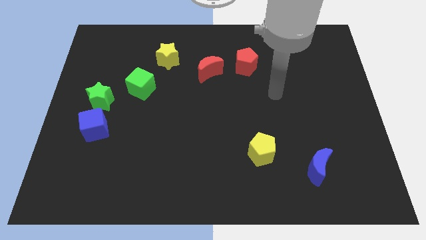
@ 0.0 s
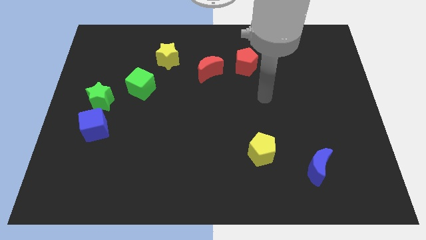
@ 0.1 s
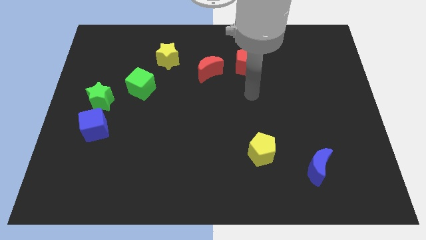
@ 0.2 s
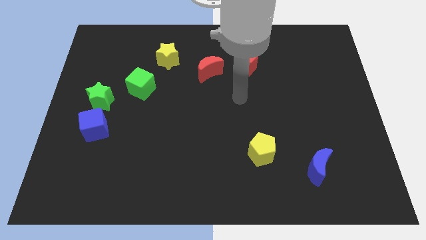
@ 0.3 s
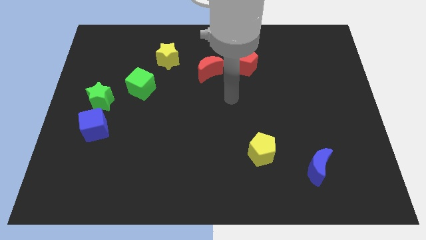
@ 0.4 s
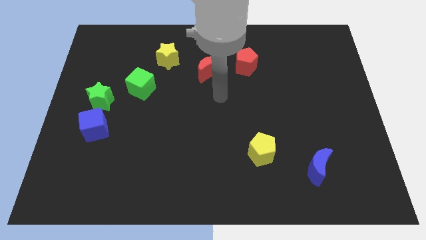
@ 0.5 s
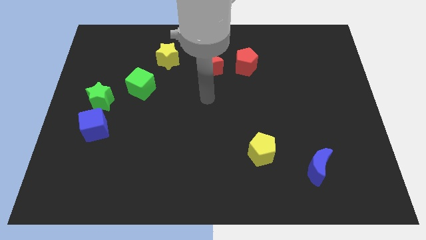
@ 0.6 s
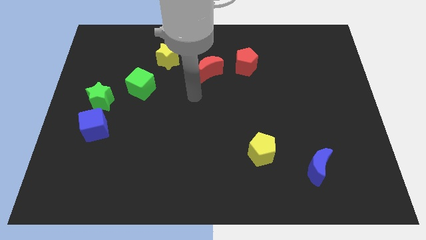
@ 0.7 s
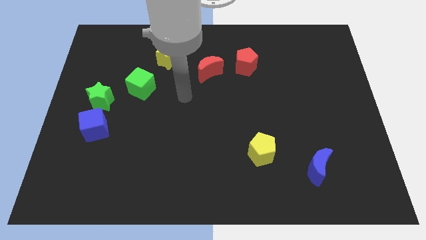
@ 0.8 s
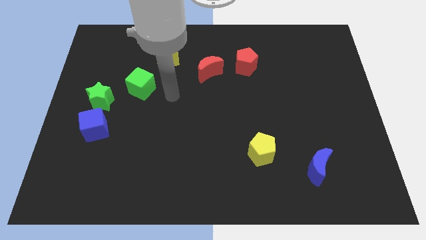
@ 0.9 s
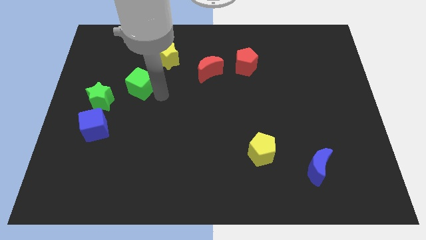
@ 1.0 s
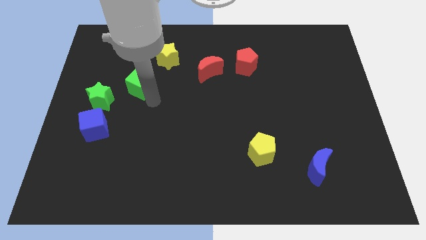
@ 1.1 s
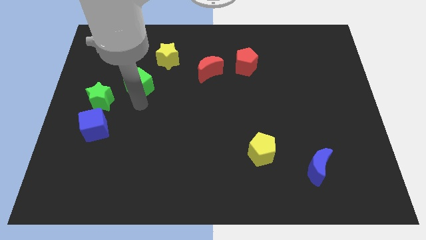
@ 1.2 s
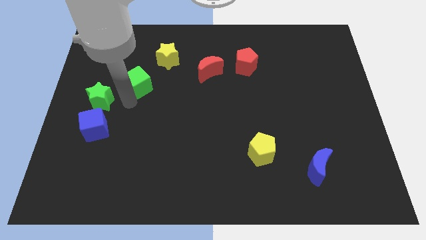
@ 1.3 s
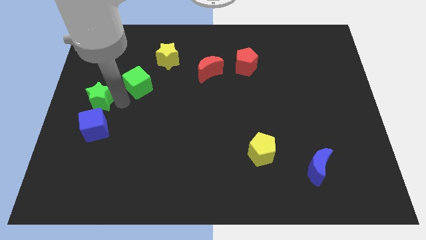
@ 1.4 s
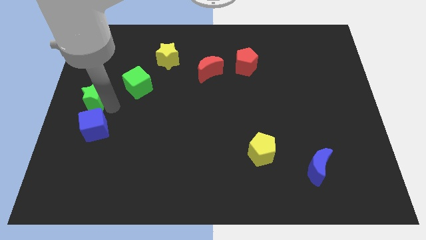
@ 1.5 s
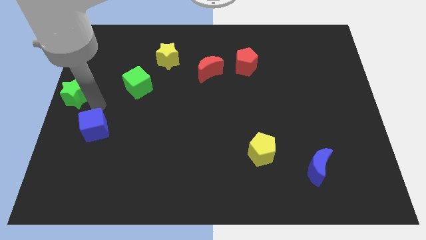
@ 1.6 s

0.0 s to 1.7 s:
pull the blue cube apart from the green star

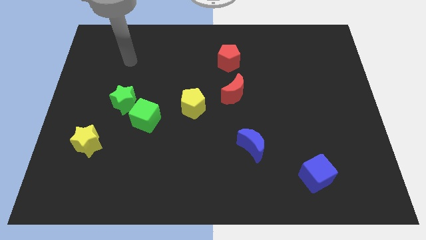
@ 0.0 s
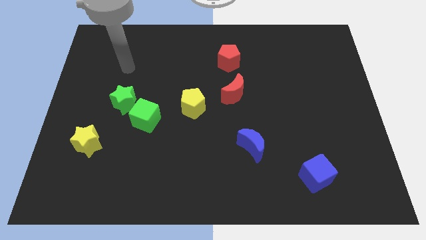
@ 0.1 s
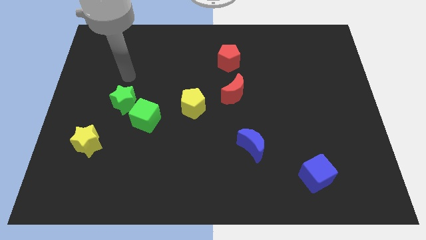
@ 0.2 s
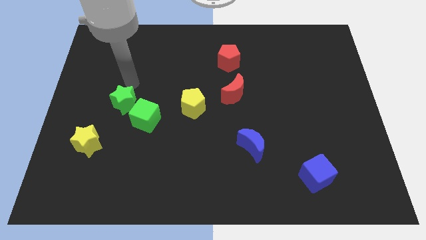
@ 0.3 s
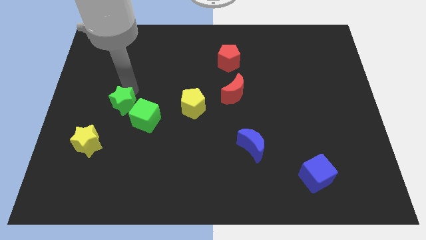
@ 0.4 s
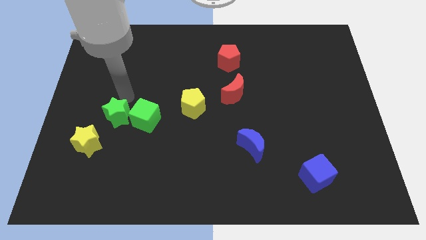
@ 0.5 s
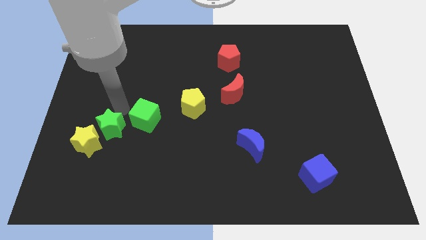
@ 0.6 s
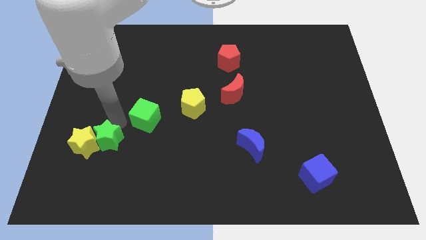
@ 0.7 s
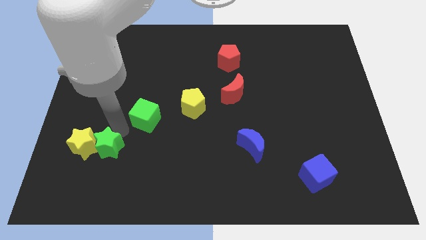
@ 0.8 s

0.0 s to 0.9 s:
separate the green cube from the green star

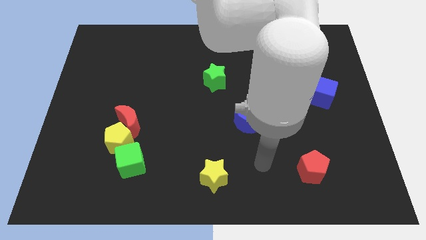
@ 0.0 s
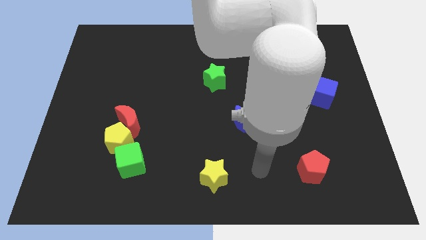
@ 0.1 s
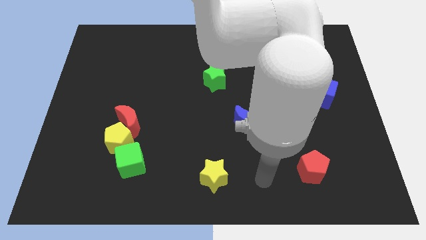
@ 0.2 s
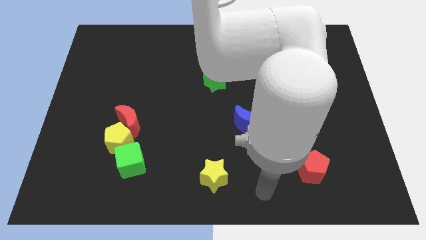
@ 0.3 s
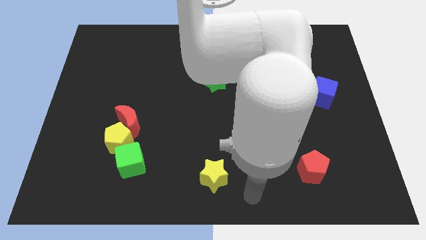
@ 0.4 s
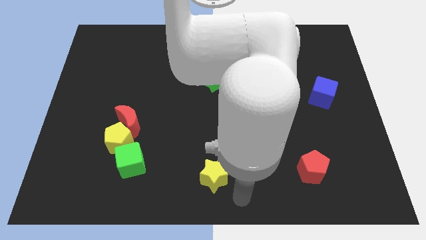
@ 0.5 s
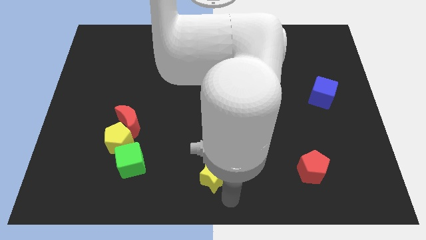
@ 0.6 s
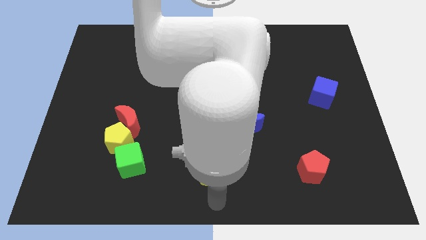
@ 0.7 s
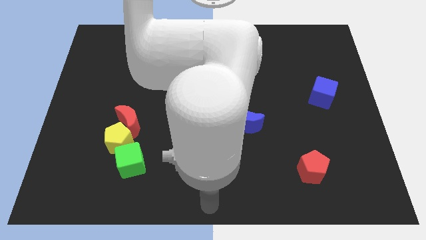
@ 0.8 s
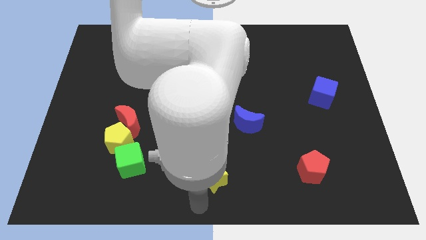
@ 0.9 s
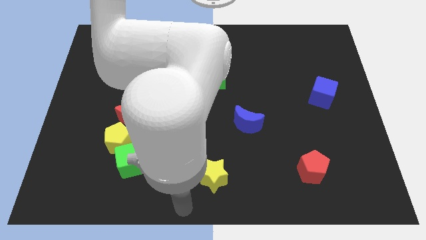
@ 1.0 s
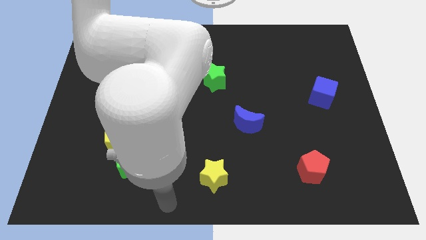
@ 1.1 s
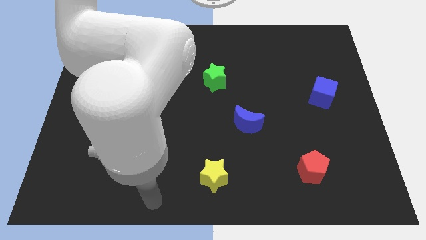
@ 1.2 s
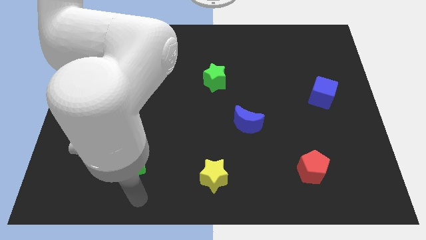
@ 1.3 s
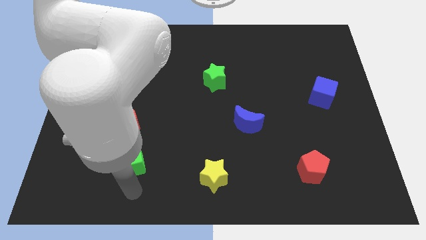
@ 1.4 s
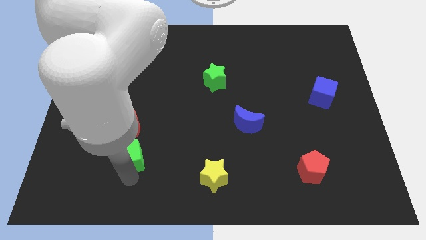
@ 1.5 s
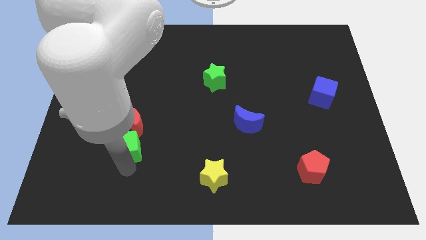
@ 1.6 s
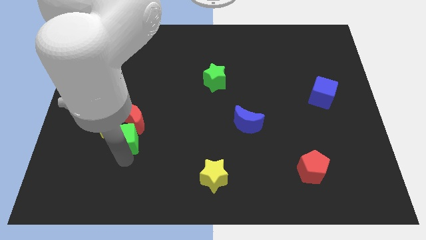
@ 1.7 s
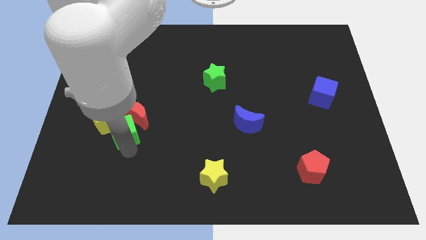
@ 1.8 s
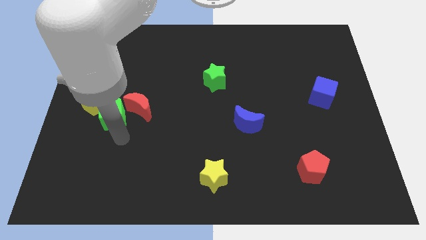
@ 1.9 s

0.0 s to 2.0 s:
move the red moon away from the yellow pentagon

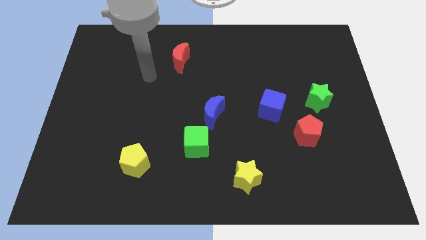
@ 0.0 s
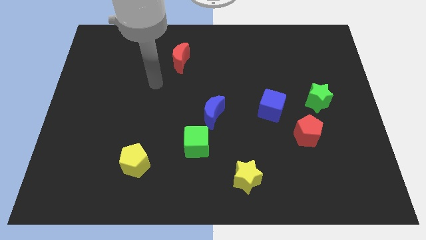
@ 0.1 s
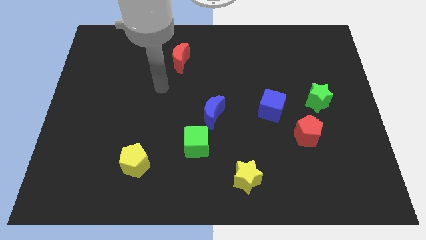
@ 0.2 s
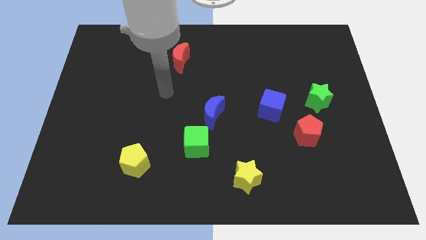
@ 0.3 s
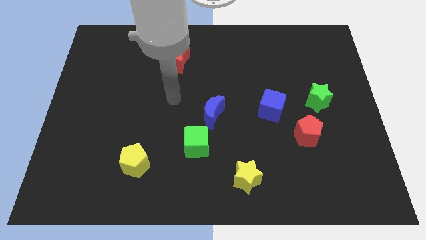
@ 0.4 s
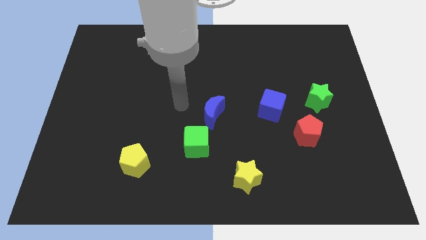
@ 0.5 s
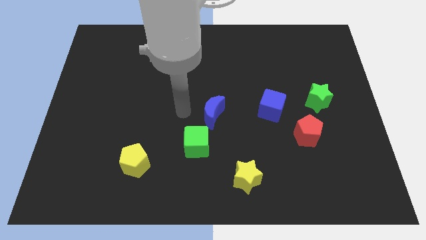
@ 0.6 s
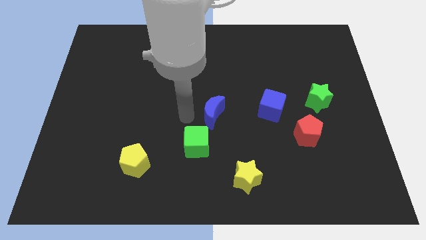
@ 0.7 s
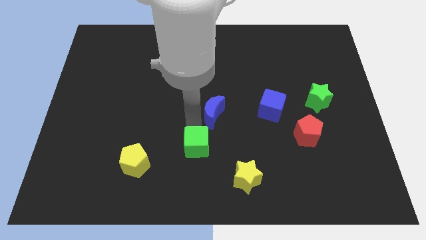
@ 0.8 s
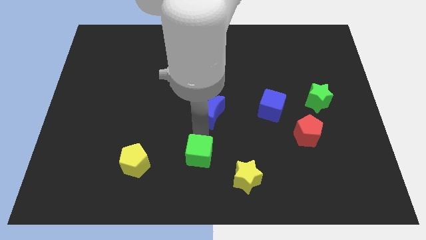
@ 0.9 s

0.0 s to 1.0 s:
separate the blue moon from the green cube

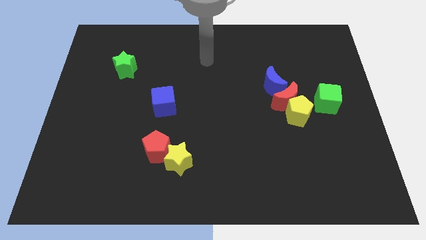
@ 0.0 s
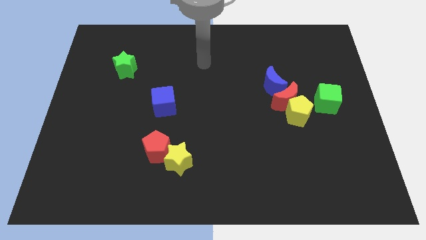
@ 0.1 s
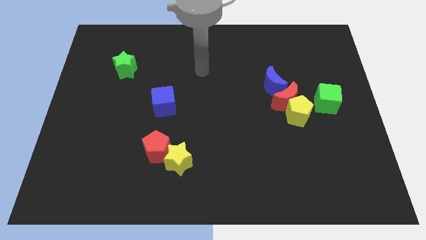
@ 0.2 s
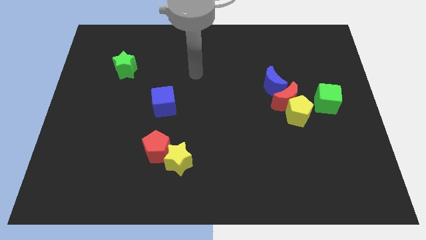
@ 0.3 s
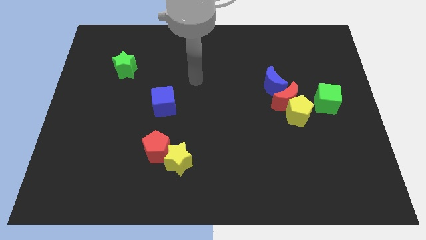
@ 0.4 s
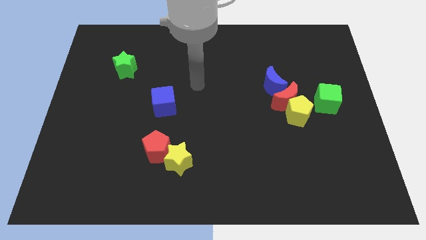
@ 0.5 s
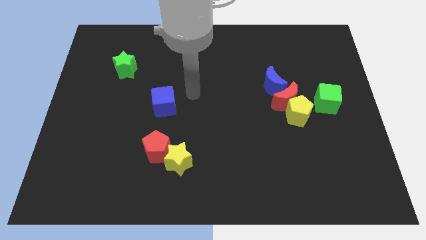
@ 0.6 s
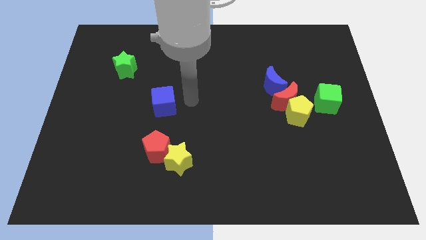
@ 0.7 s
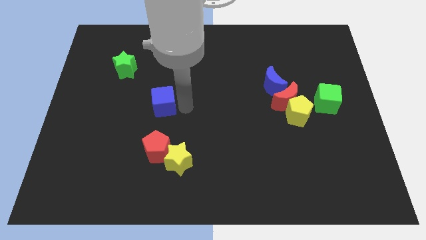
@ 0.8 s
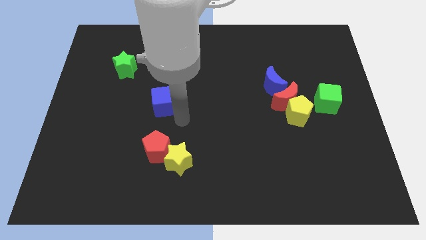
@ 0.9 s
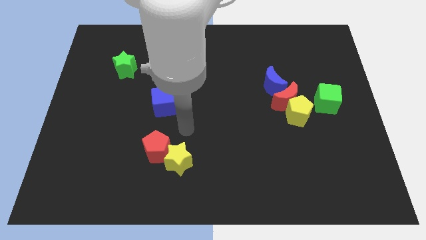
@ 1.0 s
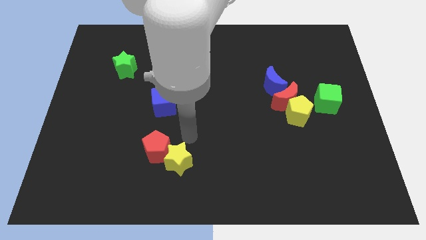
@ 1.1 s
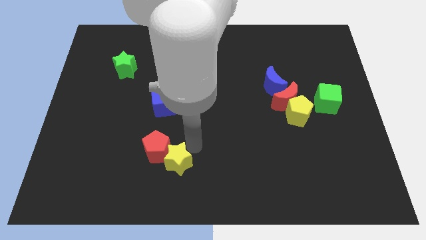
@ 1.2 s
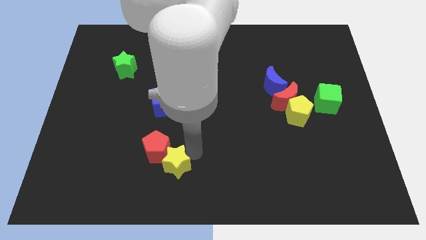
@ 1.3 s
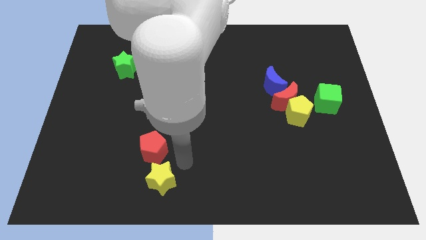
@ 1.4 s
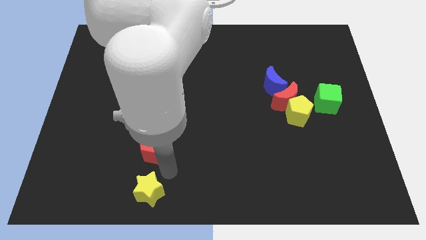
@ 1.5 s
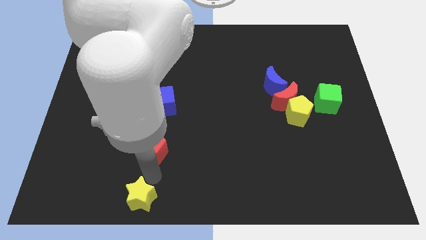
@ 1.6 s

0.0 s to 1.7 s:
move the red pentagon away from the yellow star

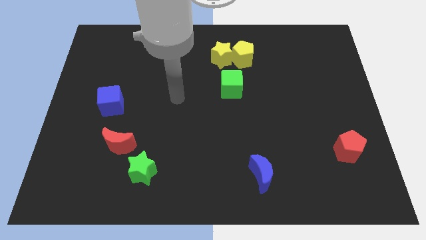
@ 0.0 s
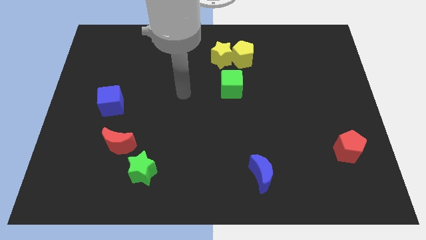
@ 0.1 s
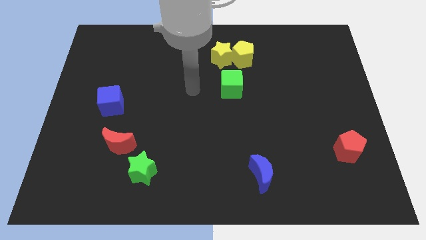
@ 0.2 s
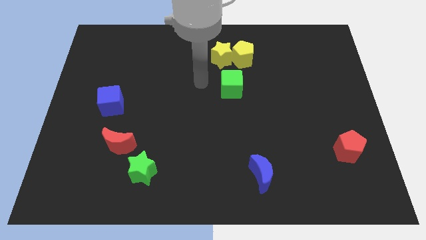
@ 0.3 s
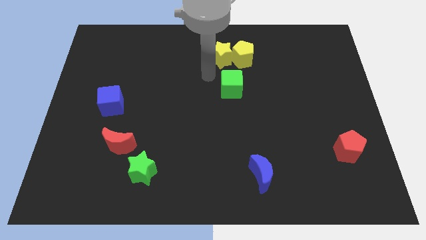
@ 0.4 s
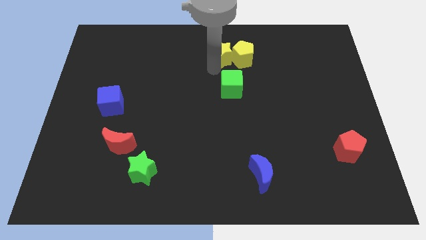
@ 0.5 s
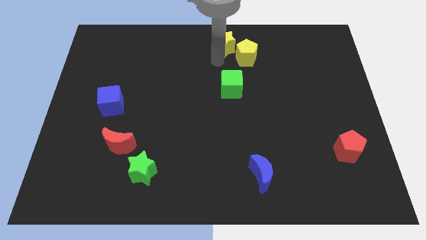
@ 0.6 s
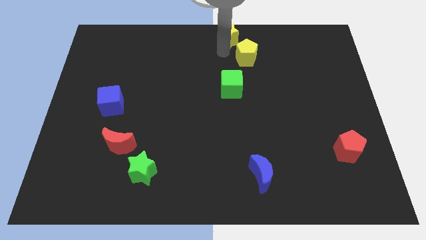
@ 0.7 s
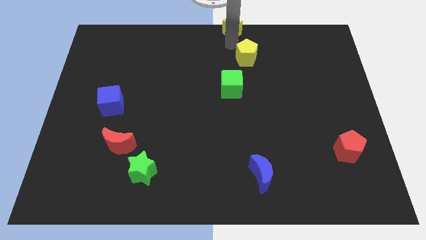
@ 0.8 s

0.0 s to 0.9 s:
pull the yellow pentagon apart from the yellow star

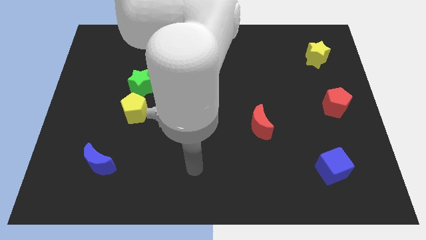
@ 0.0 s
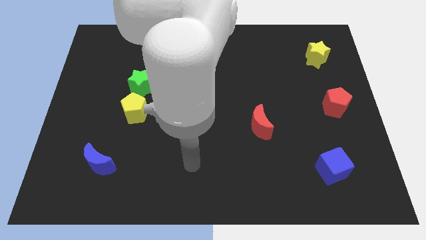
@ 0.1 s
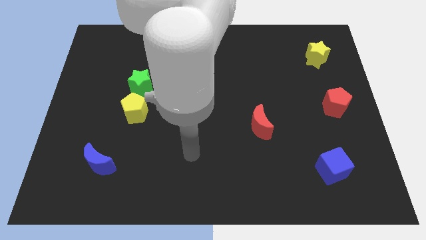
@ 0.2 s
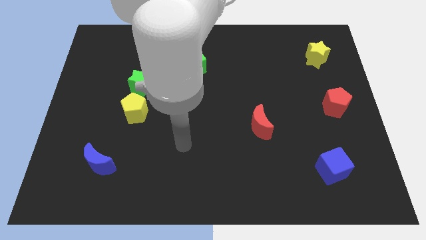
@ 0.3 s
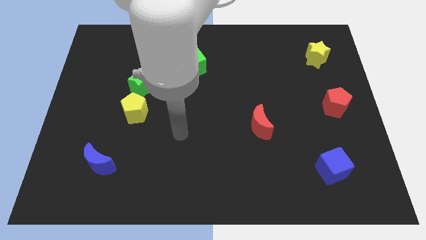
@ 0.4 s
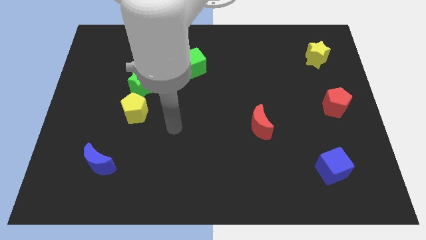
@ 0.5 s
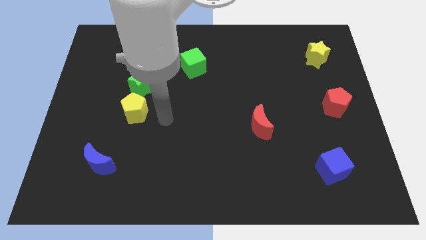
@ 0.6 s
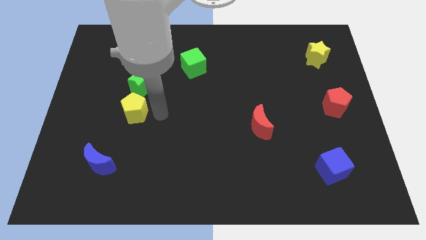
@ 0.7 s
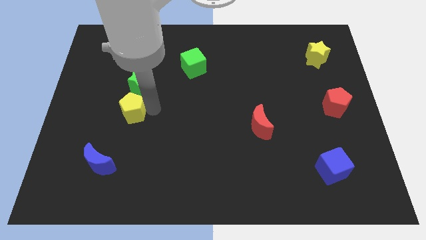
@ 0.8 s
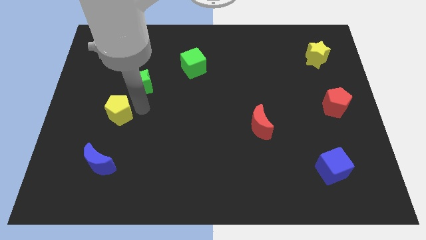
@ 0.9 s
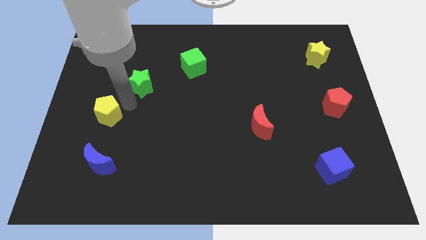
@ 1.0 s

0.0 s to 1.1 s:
pull the green star apart from the yellow pentagon

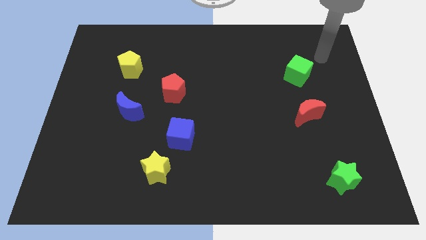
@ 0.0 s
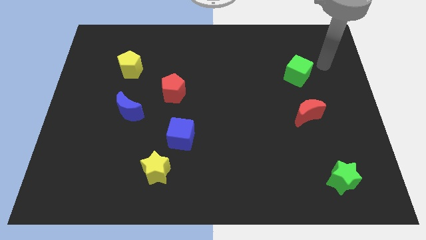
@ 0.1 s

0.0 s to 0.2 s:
separate the blue cube from the yellow star
